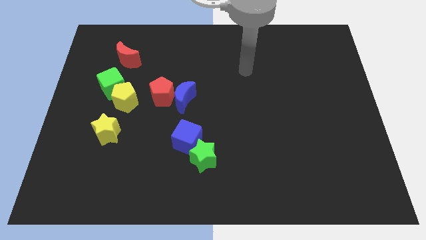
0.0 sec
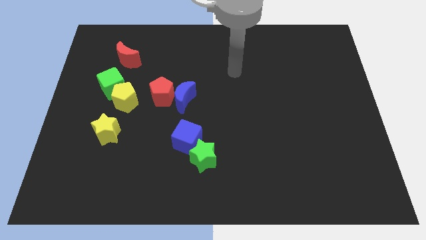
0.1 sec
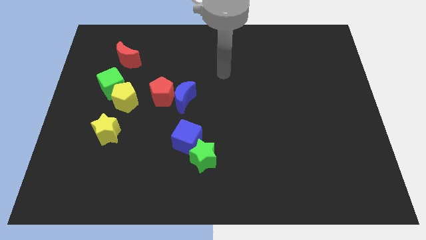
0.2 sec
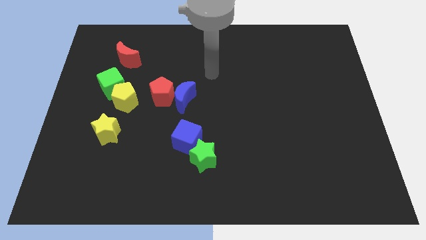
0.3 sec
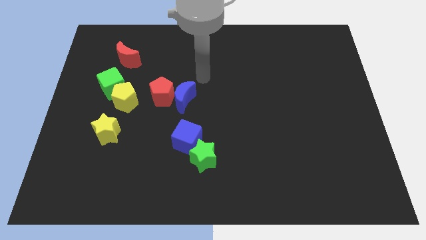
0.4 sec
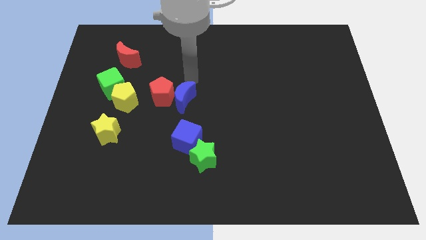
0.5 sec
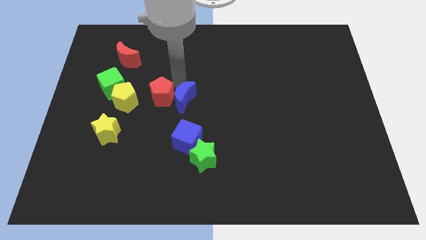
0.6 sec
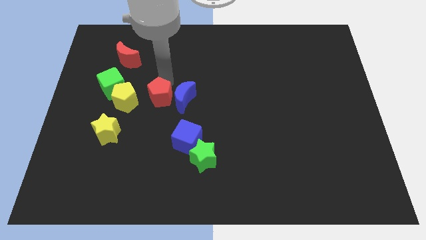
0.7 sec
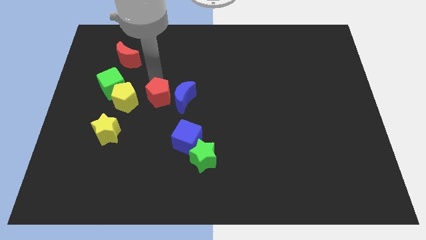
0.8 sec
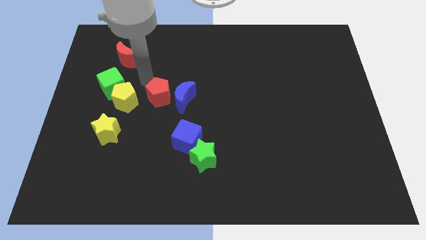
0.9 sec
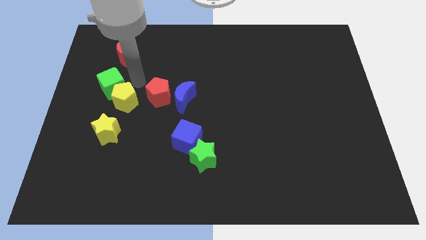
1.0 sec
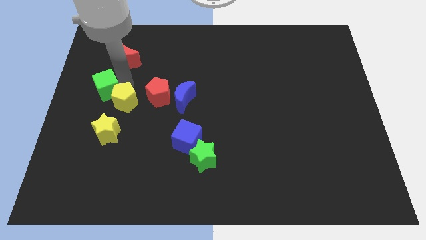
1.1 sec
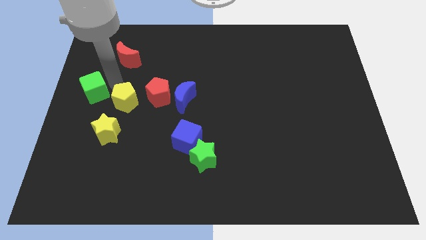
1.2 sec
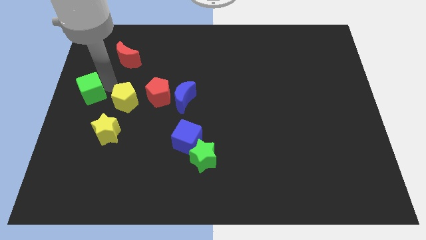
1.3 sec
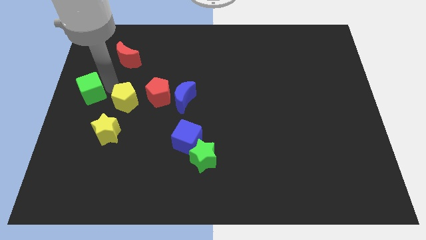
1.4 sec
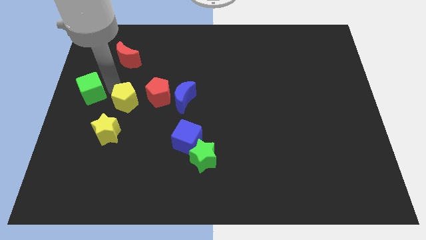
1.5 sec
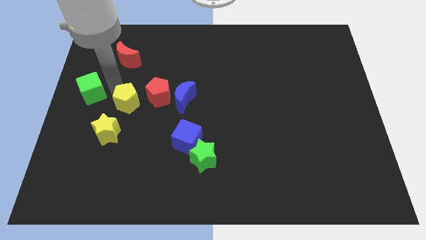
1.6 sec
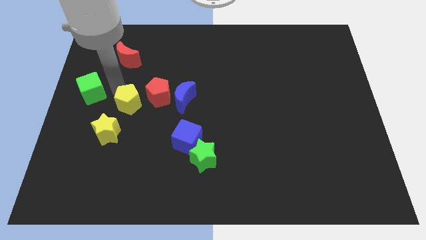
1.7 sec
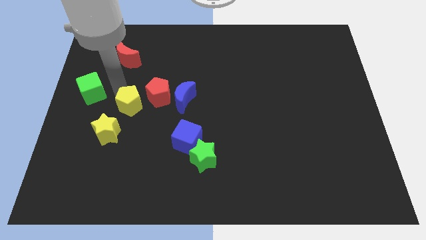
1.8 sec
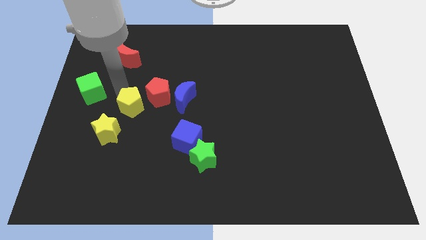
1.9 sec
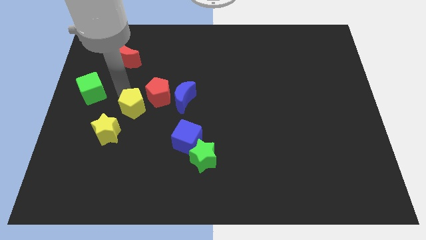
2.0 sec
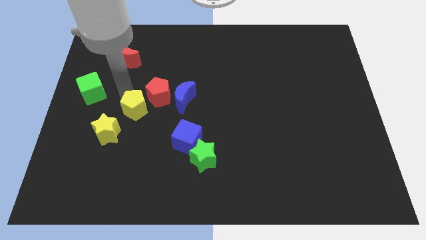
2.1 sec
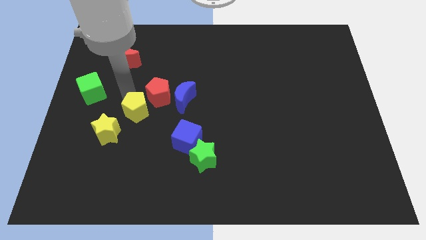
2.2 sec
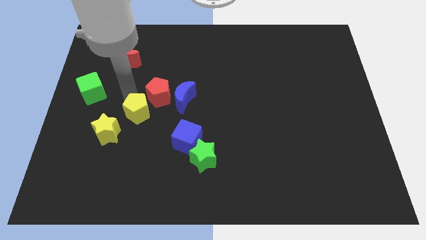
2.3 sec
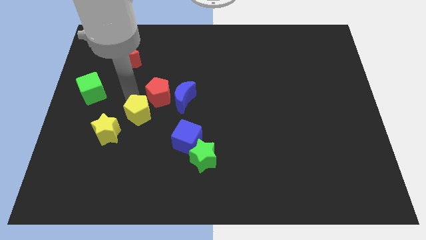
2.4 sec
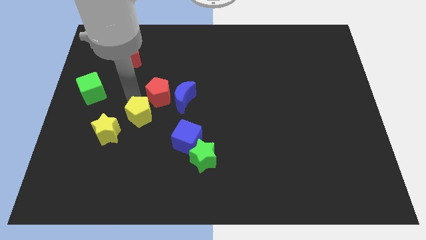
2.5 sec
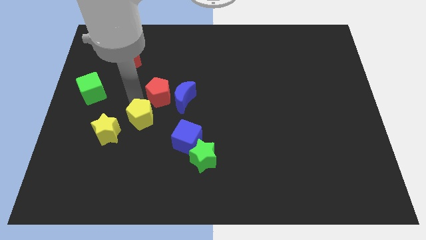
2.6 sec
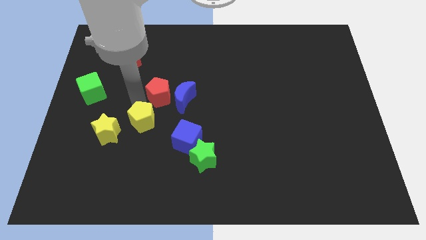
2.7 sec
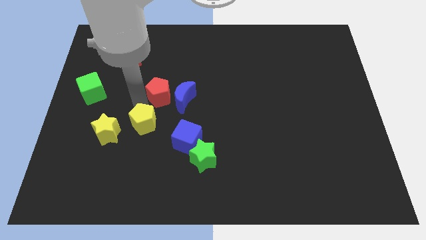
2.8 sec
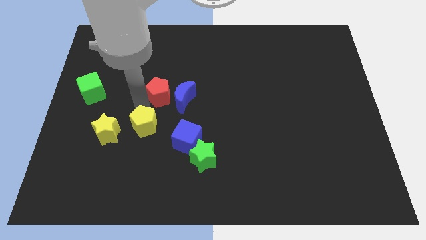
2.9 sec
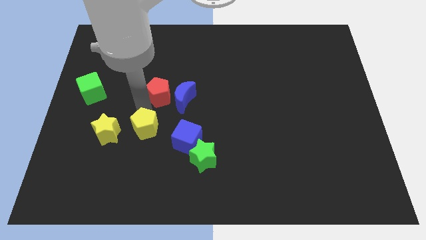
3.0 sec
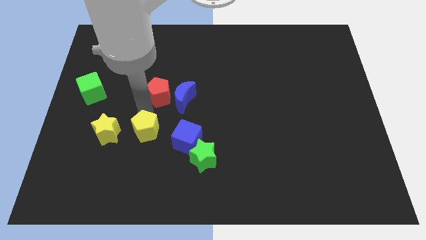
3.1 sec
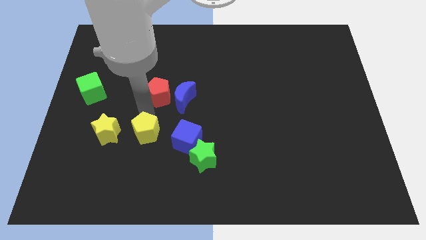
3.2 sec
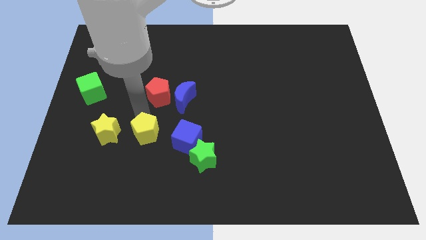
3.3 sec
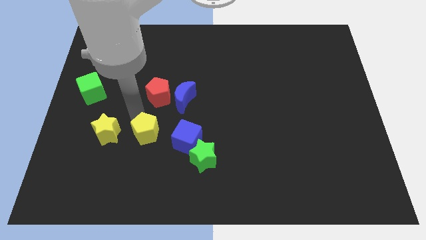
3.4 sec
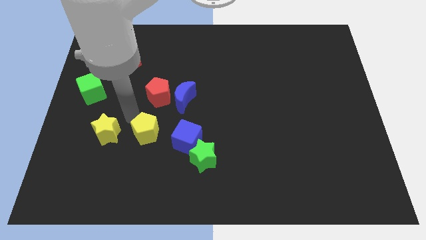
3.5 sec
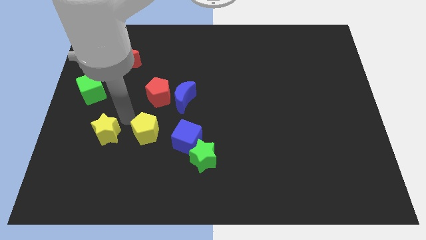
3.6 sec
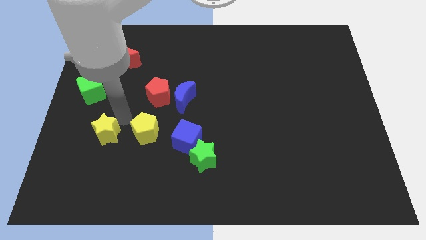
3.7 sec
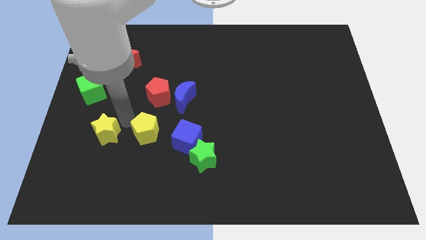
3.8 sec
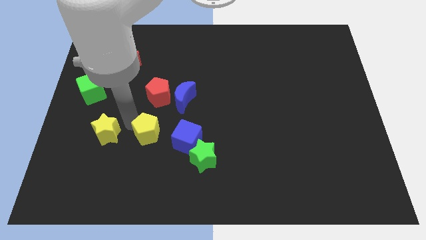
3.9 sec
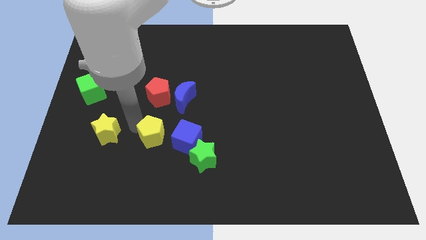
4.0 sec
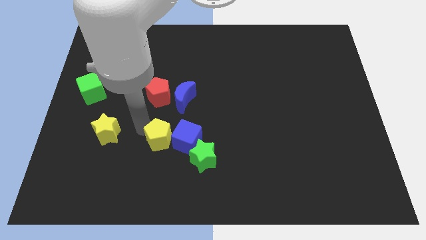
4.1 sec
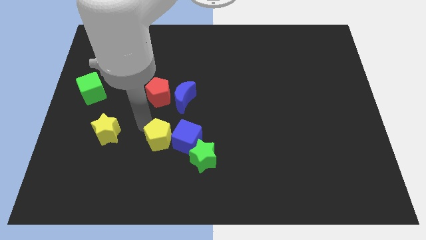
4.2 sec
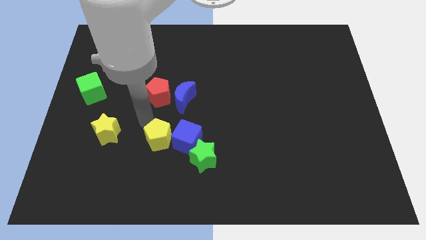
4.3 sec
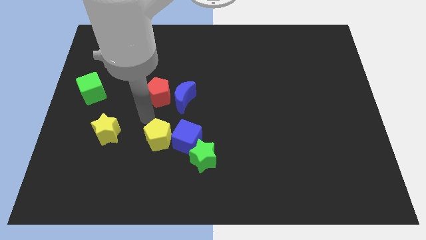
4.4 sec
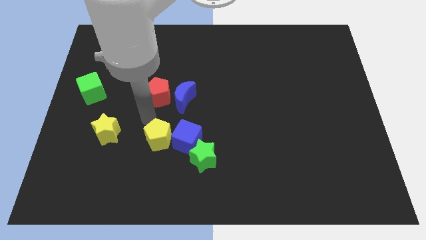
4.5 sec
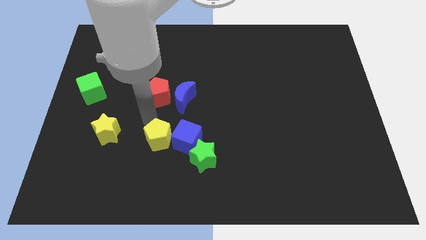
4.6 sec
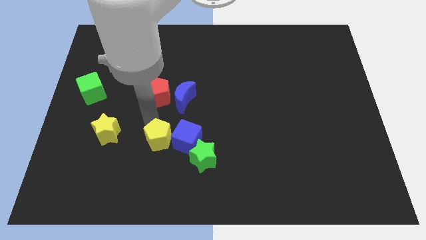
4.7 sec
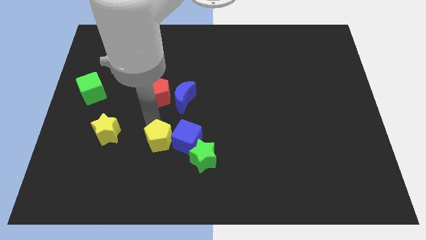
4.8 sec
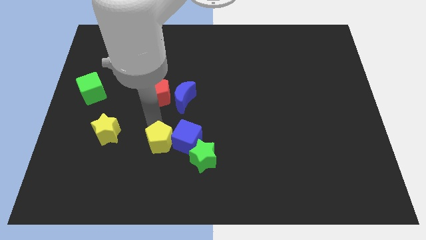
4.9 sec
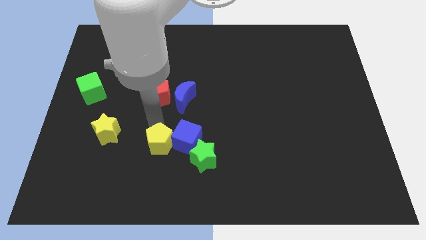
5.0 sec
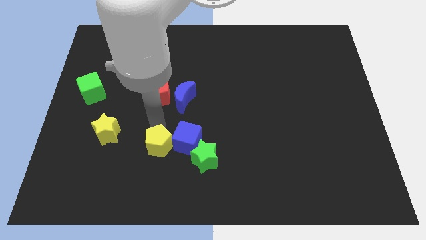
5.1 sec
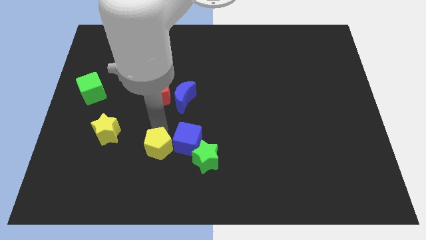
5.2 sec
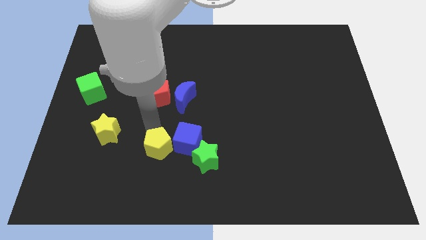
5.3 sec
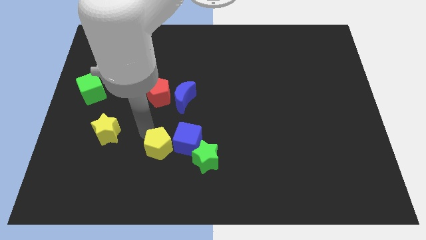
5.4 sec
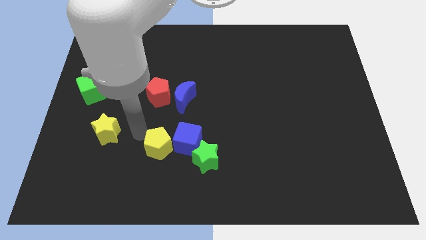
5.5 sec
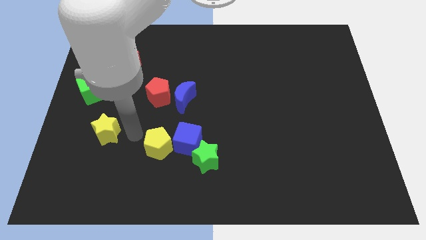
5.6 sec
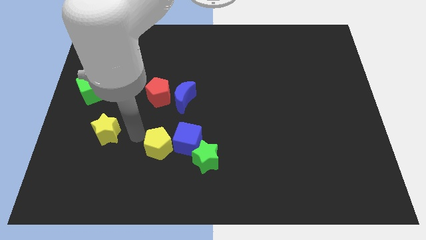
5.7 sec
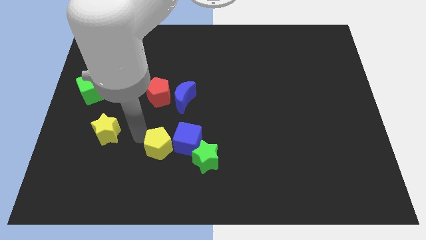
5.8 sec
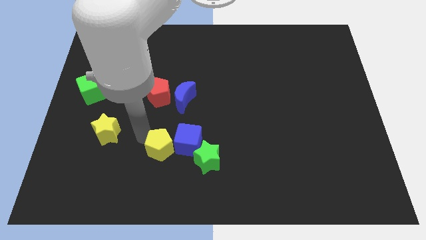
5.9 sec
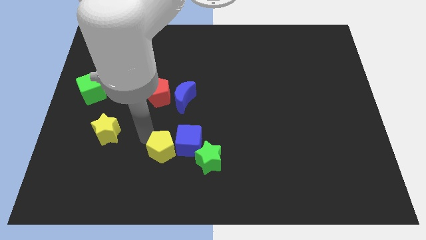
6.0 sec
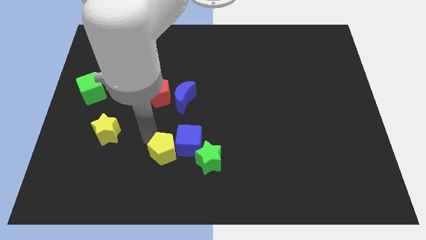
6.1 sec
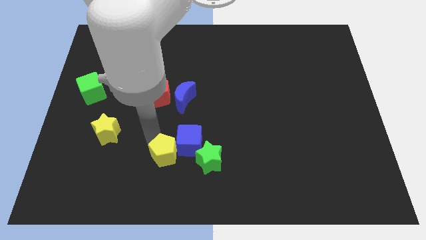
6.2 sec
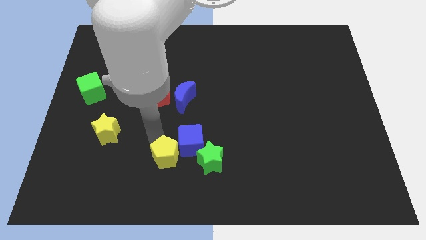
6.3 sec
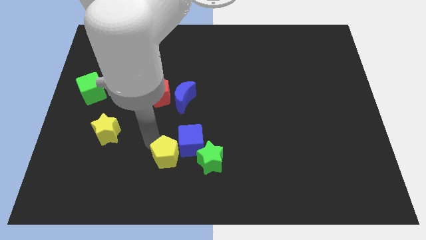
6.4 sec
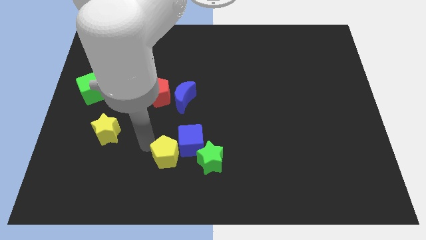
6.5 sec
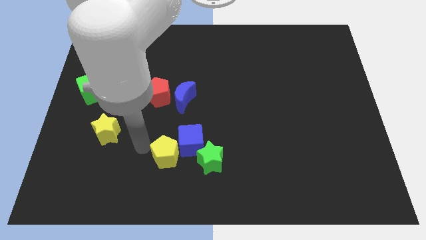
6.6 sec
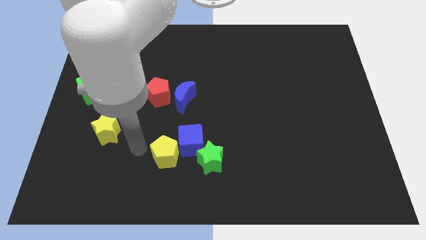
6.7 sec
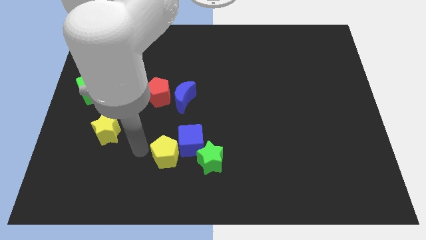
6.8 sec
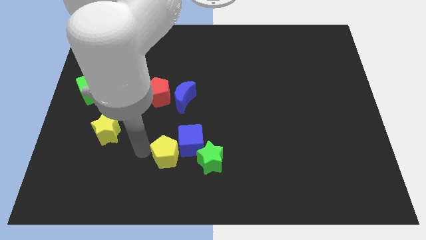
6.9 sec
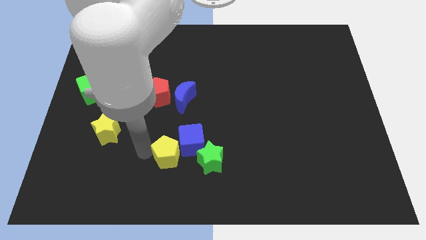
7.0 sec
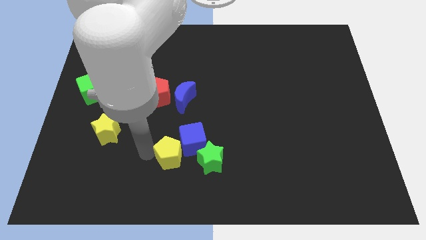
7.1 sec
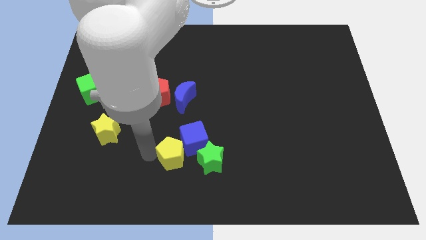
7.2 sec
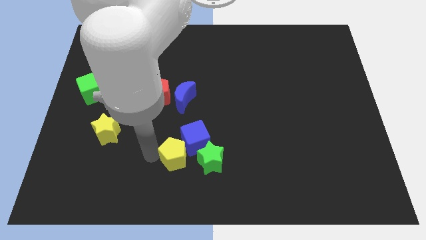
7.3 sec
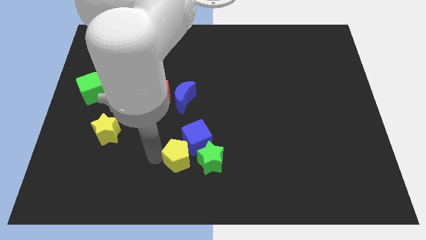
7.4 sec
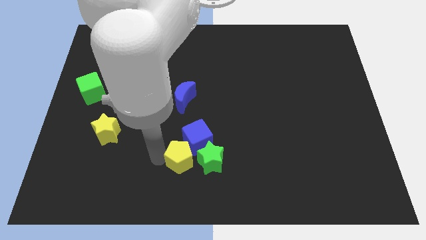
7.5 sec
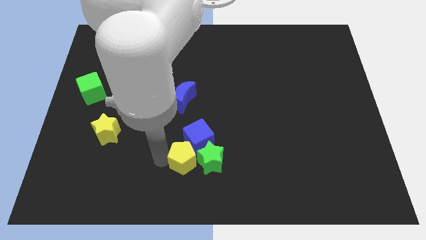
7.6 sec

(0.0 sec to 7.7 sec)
move the yellow pentagon towards the green star
